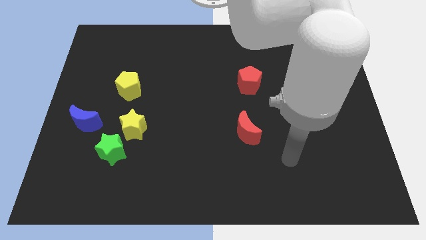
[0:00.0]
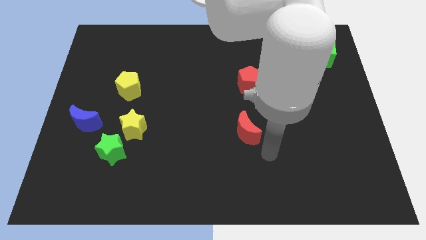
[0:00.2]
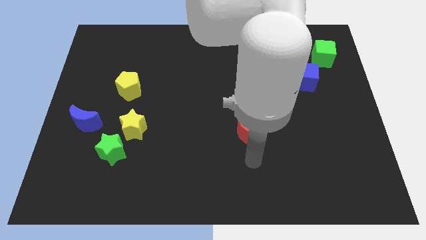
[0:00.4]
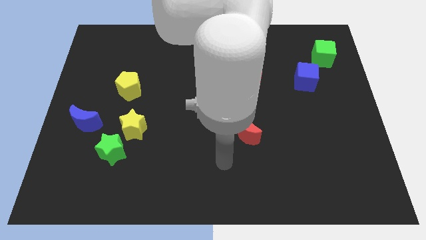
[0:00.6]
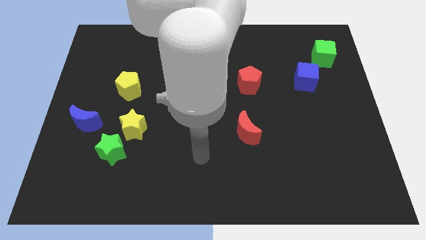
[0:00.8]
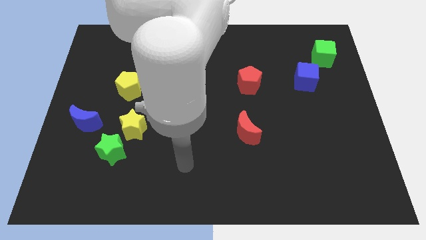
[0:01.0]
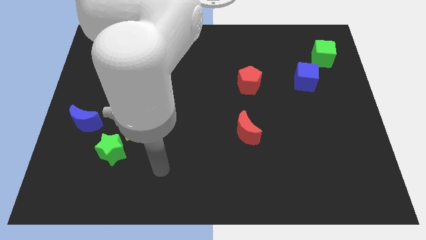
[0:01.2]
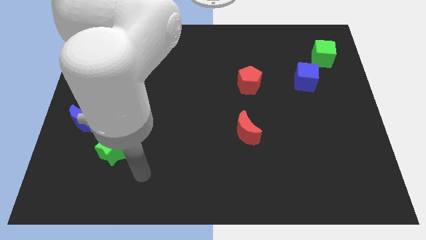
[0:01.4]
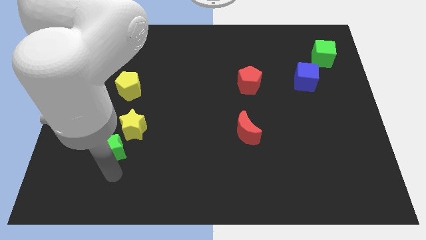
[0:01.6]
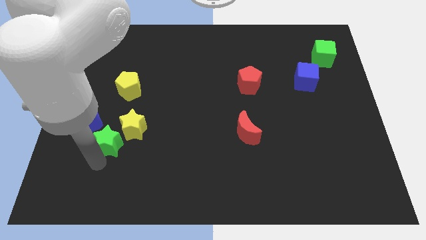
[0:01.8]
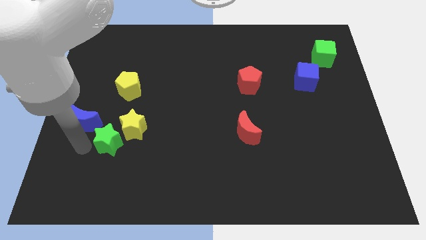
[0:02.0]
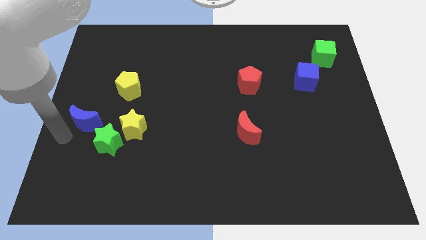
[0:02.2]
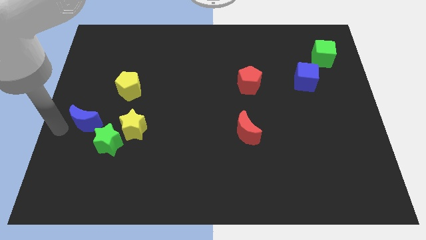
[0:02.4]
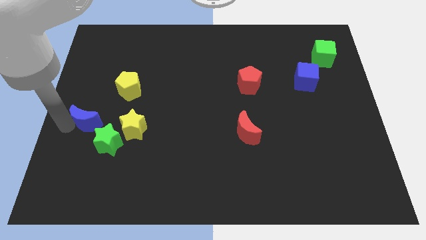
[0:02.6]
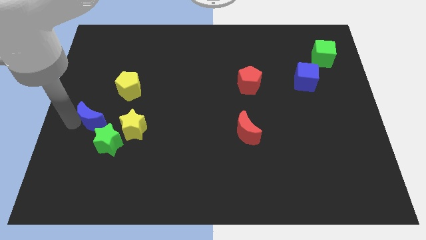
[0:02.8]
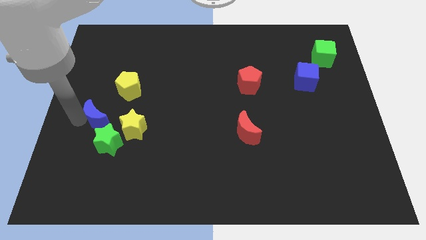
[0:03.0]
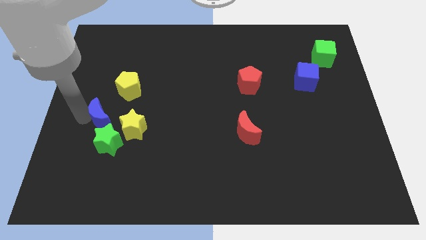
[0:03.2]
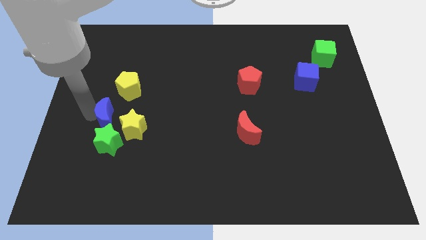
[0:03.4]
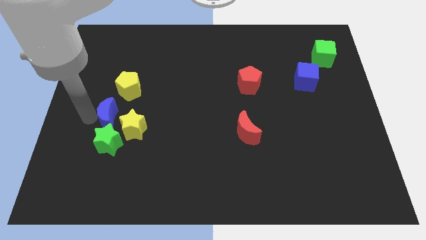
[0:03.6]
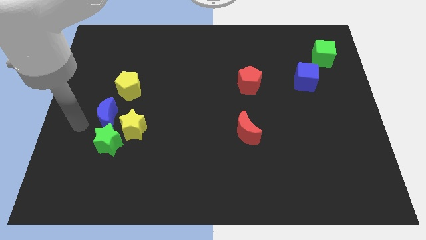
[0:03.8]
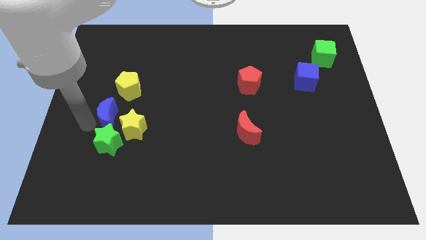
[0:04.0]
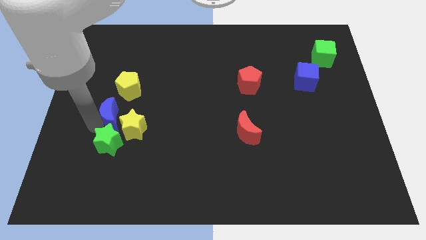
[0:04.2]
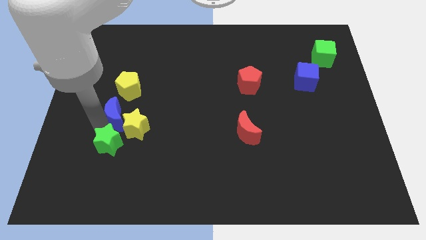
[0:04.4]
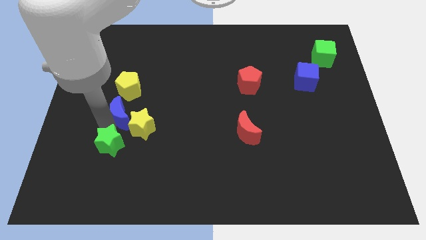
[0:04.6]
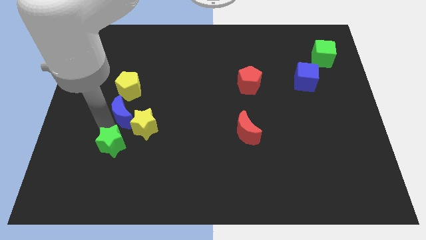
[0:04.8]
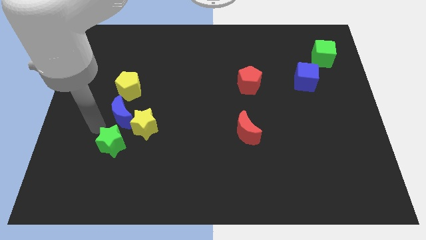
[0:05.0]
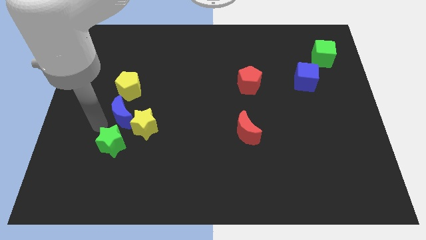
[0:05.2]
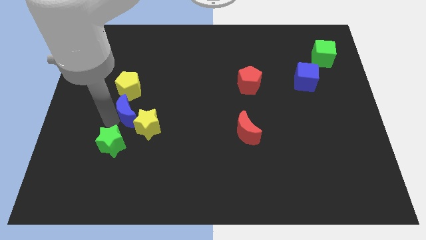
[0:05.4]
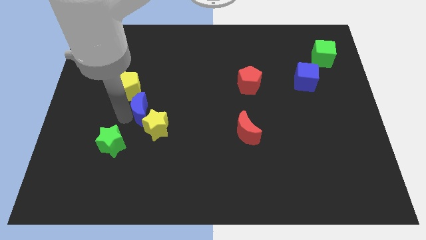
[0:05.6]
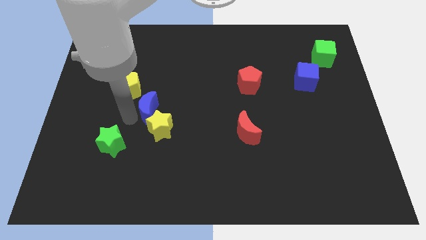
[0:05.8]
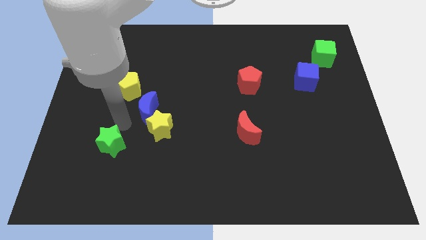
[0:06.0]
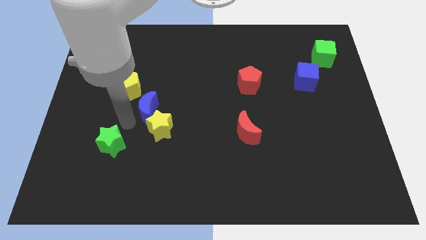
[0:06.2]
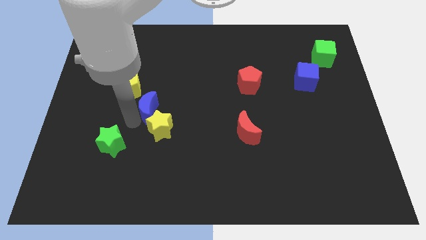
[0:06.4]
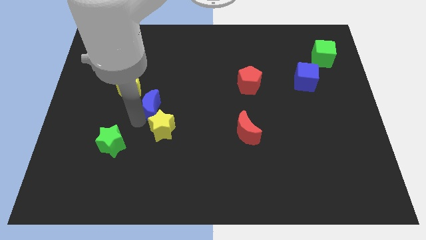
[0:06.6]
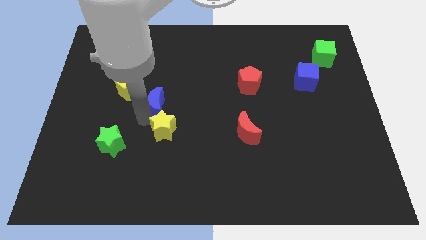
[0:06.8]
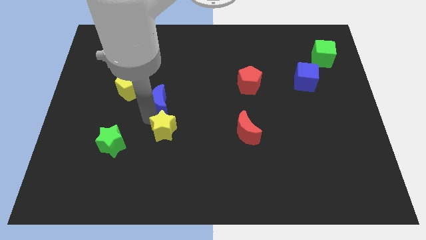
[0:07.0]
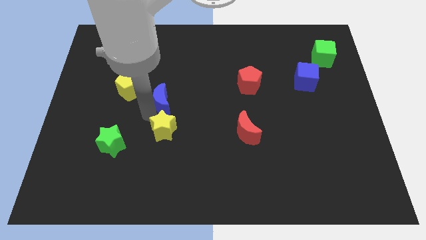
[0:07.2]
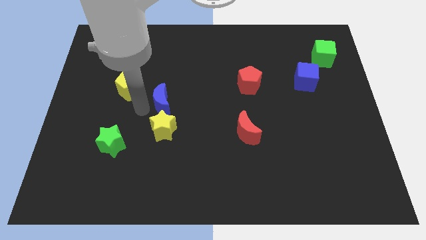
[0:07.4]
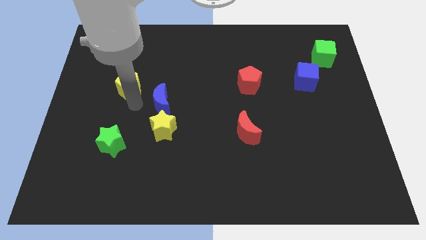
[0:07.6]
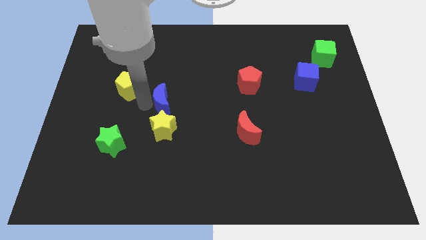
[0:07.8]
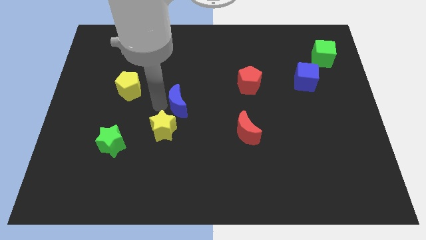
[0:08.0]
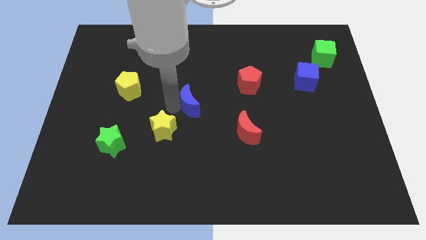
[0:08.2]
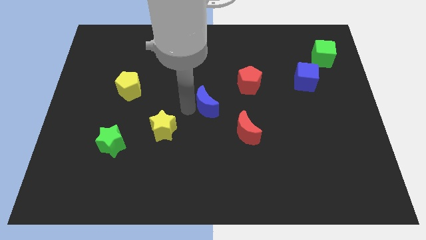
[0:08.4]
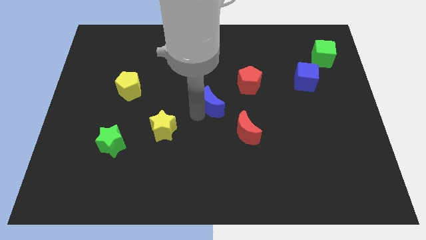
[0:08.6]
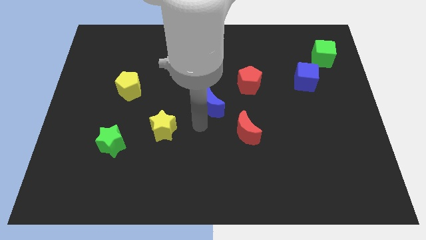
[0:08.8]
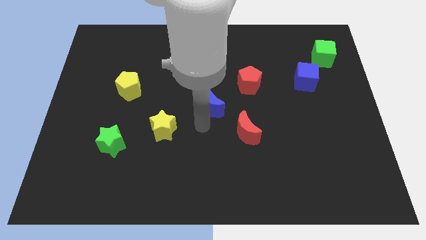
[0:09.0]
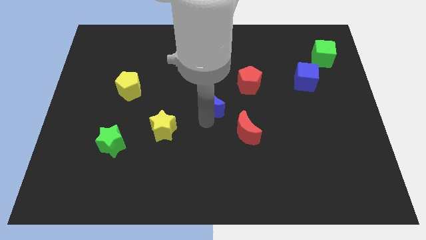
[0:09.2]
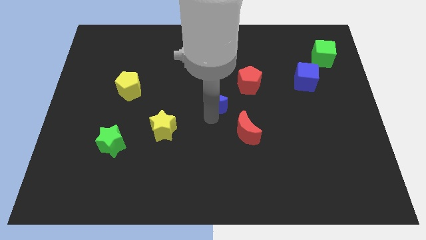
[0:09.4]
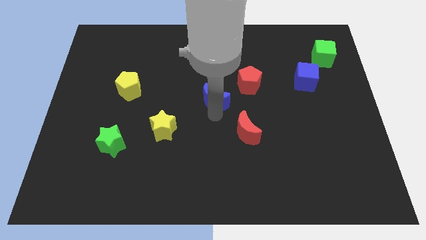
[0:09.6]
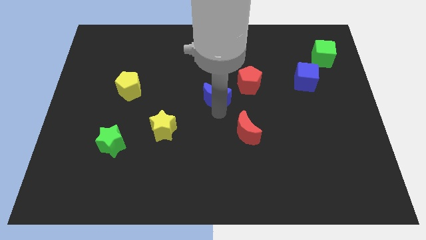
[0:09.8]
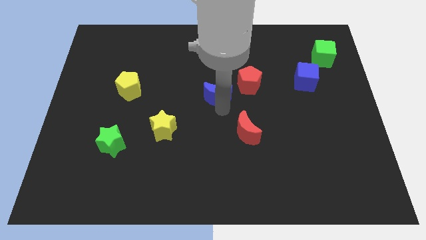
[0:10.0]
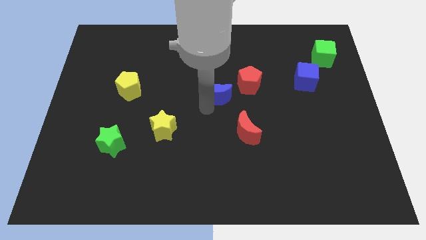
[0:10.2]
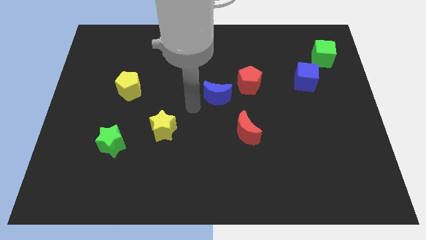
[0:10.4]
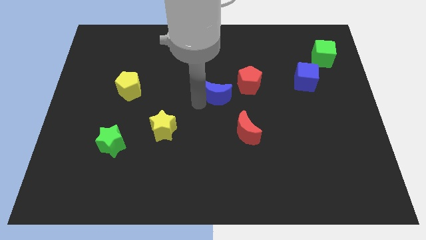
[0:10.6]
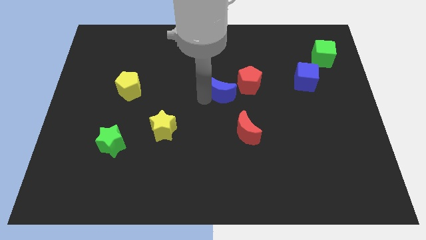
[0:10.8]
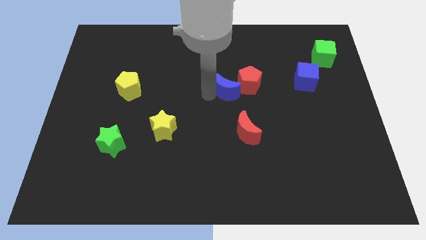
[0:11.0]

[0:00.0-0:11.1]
put the blue moon to the red pentagon

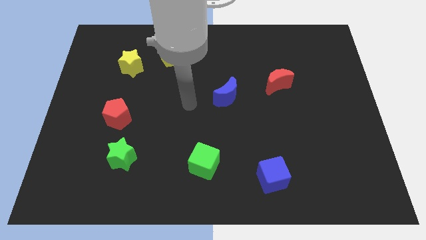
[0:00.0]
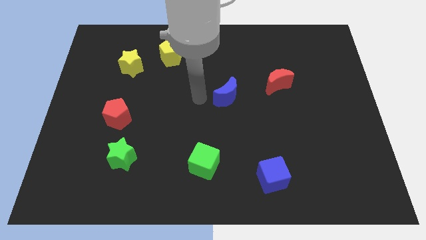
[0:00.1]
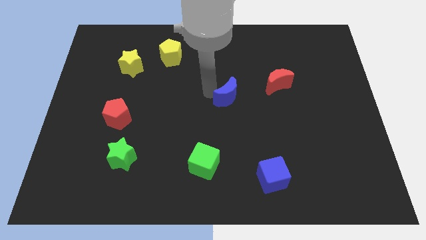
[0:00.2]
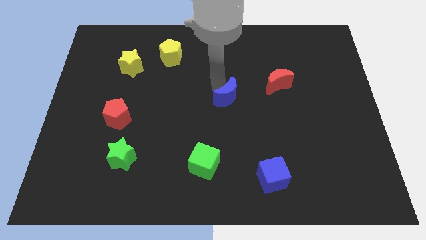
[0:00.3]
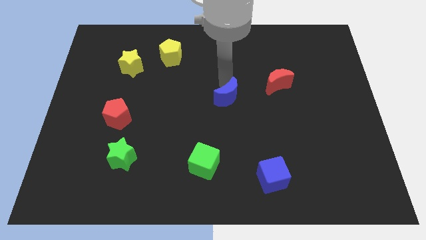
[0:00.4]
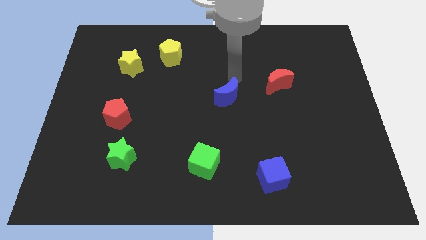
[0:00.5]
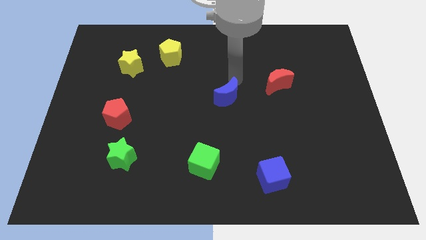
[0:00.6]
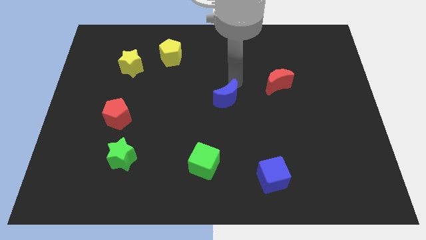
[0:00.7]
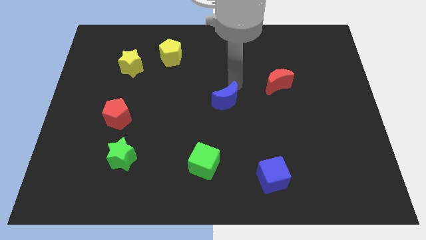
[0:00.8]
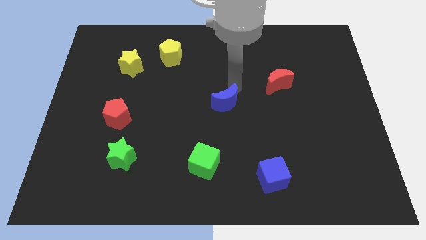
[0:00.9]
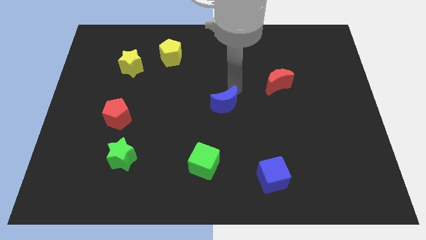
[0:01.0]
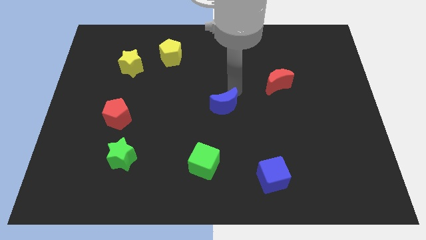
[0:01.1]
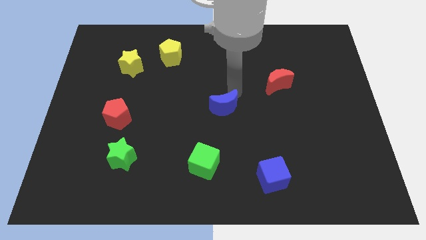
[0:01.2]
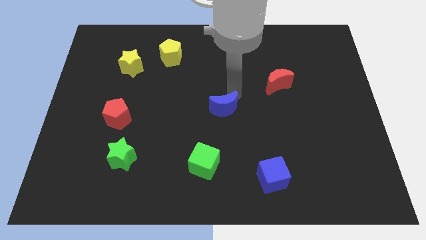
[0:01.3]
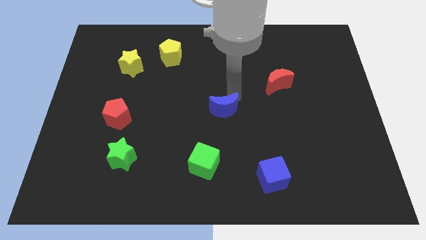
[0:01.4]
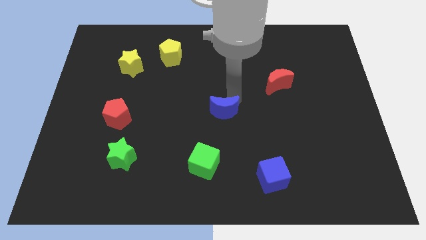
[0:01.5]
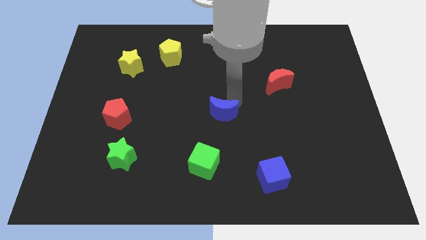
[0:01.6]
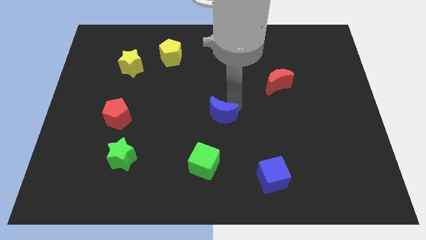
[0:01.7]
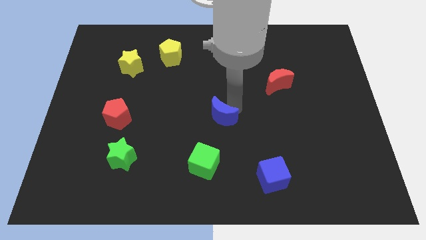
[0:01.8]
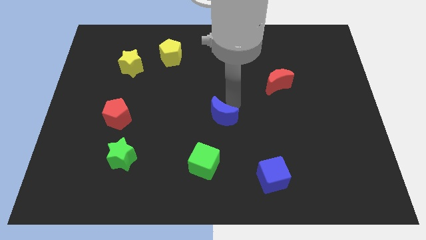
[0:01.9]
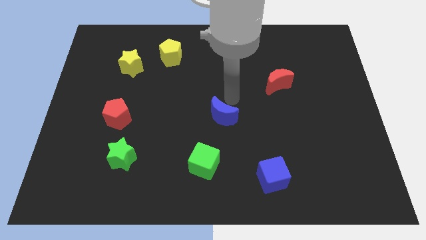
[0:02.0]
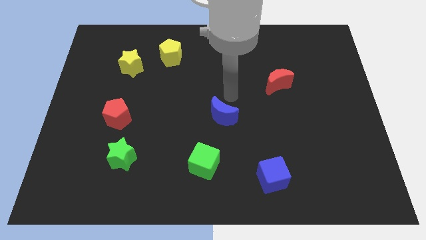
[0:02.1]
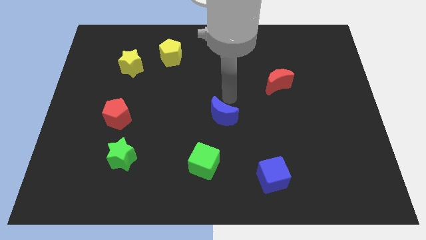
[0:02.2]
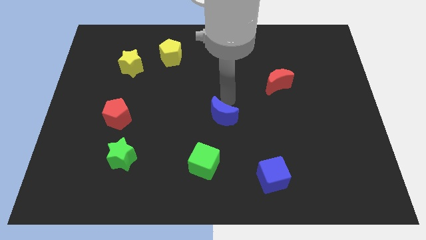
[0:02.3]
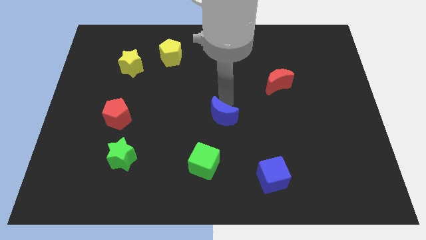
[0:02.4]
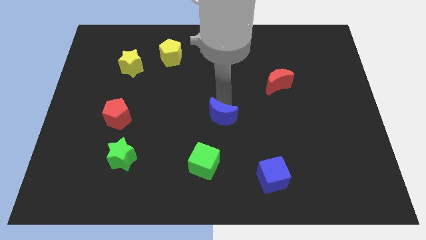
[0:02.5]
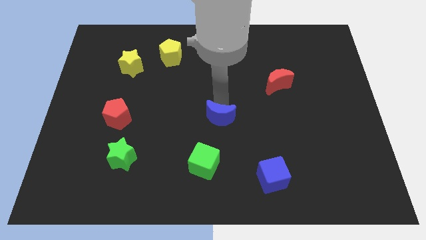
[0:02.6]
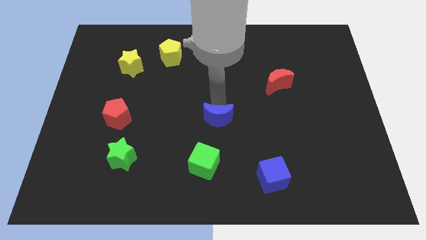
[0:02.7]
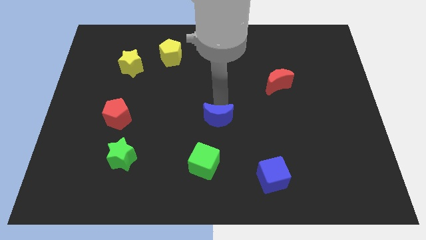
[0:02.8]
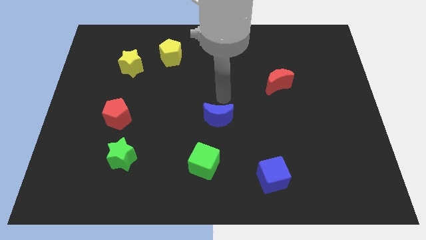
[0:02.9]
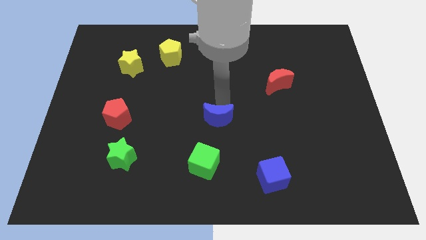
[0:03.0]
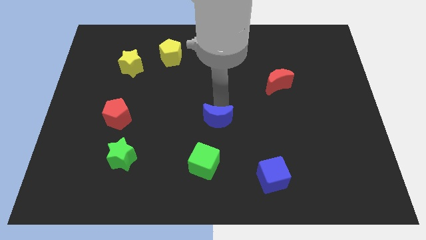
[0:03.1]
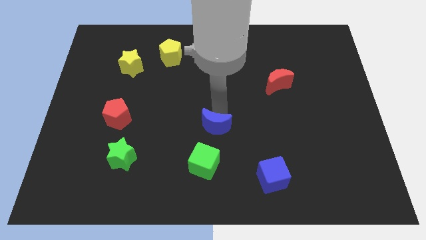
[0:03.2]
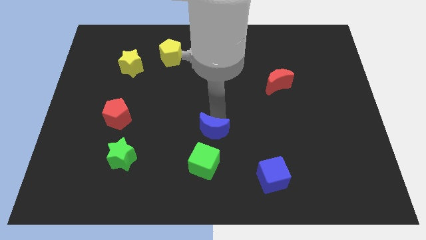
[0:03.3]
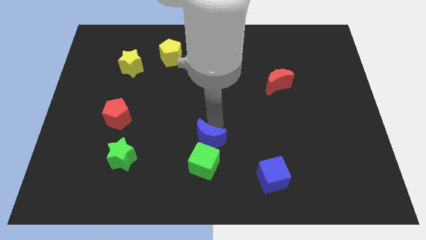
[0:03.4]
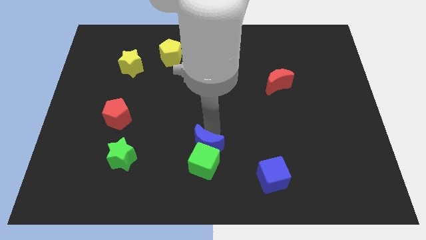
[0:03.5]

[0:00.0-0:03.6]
slide the blue moon to the green cube
